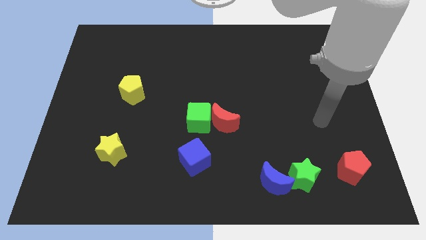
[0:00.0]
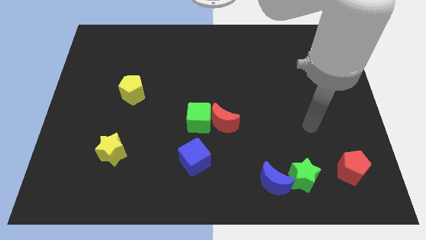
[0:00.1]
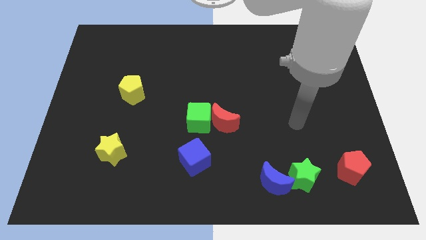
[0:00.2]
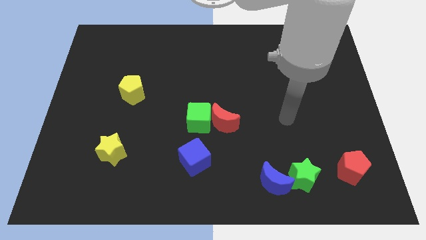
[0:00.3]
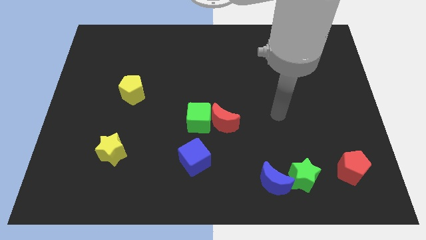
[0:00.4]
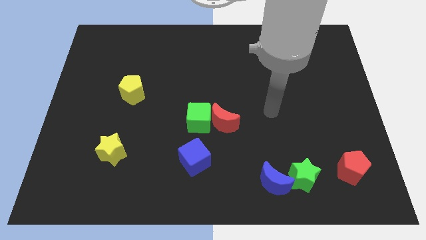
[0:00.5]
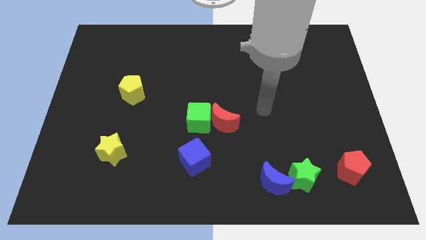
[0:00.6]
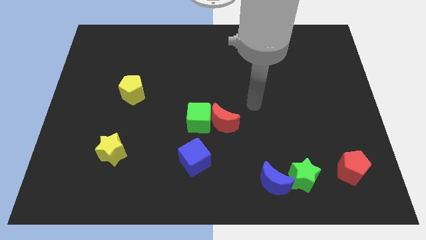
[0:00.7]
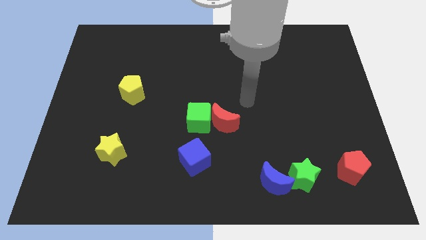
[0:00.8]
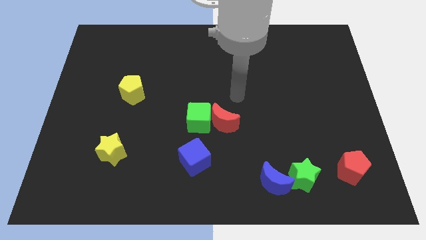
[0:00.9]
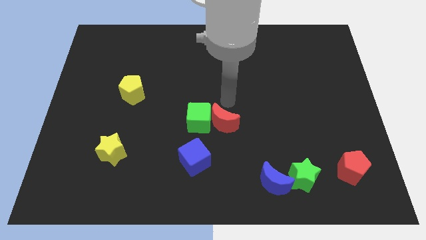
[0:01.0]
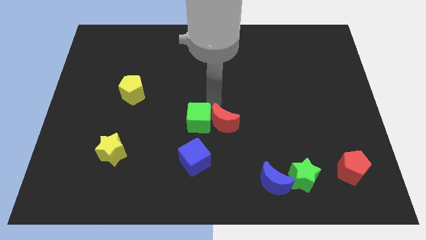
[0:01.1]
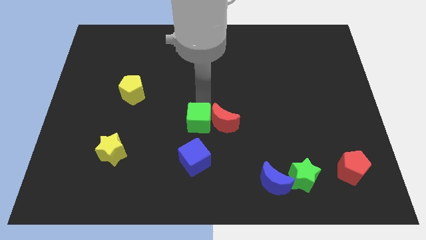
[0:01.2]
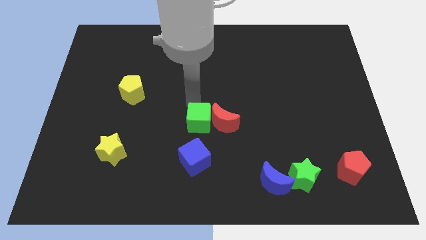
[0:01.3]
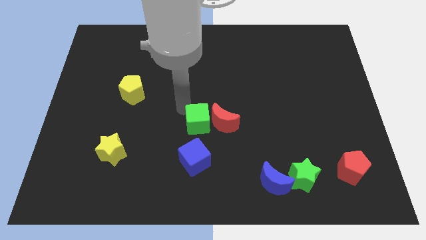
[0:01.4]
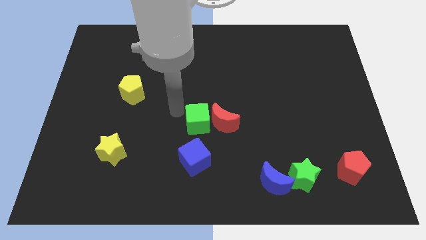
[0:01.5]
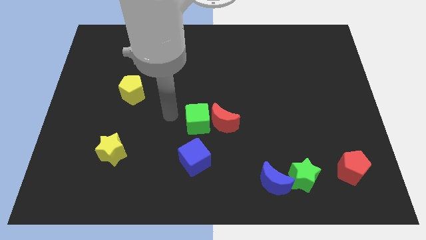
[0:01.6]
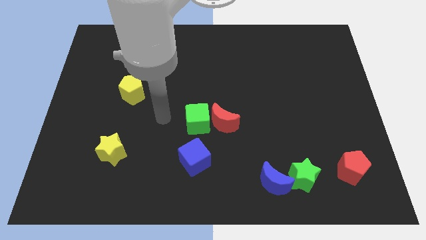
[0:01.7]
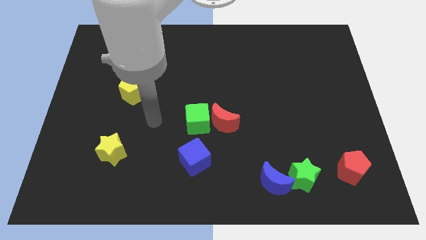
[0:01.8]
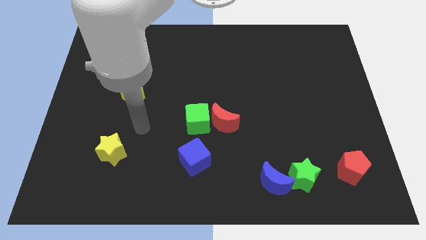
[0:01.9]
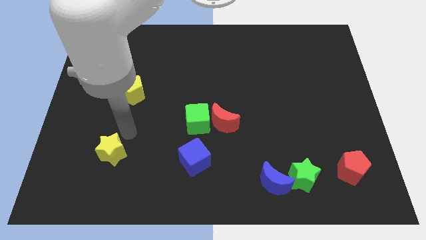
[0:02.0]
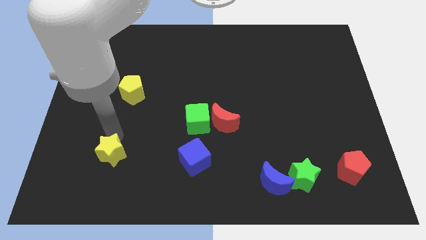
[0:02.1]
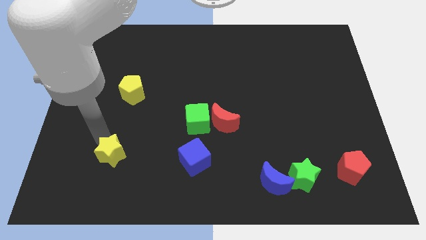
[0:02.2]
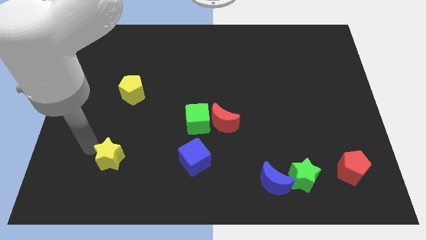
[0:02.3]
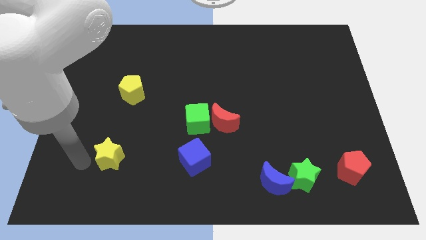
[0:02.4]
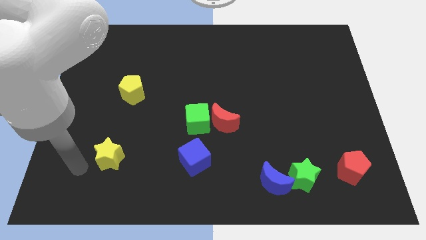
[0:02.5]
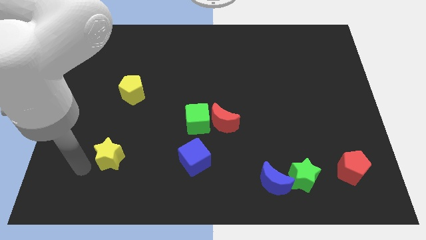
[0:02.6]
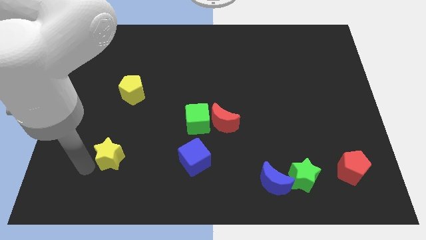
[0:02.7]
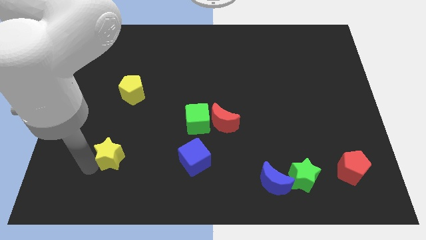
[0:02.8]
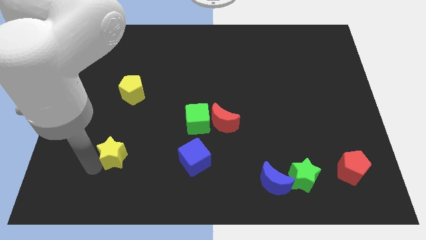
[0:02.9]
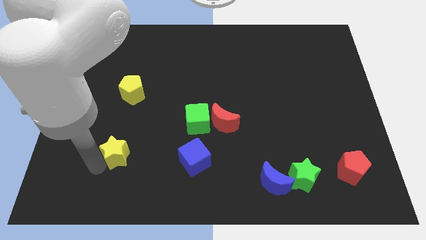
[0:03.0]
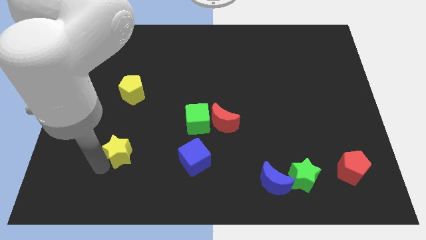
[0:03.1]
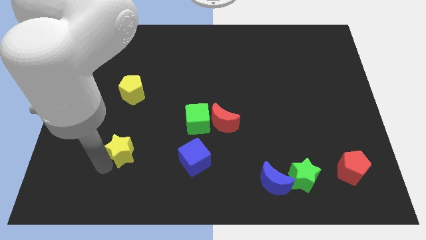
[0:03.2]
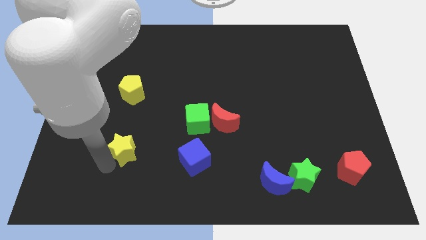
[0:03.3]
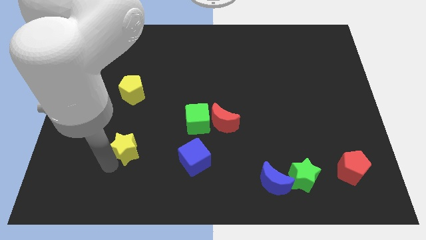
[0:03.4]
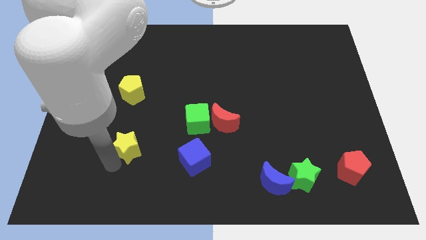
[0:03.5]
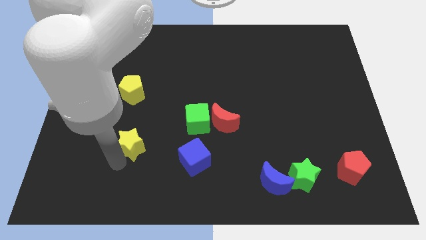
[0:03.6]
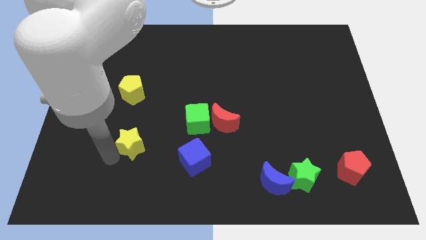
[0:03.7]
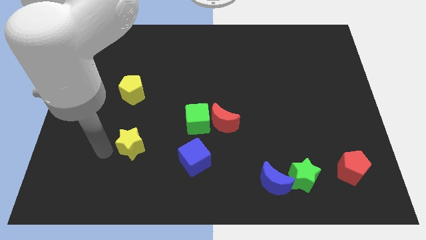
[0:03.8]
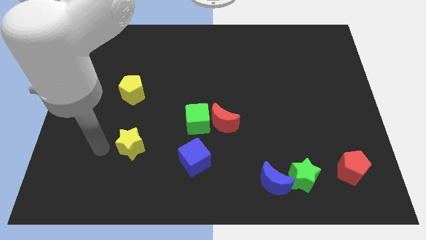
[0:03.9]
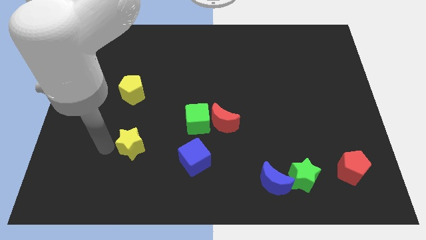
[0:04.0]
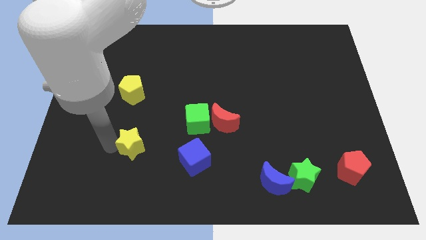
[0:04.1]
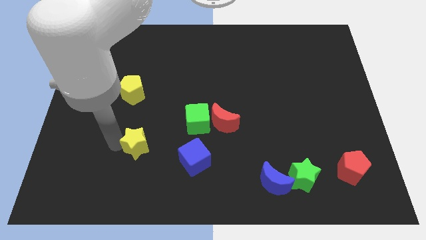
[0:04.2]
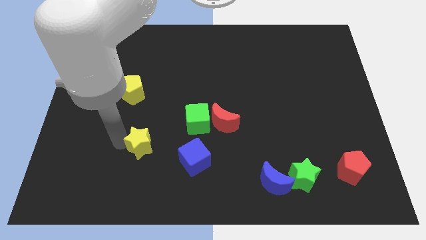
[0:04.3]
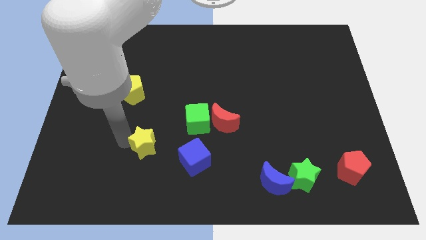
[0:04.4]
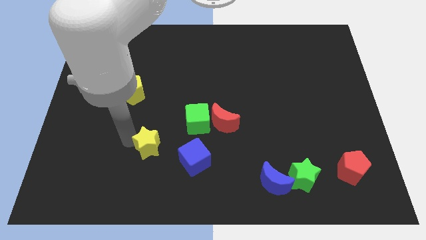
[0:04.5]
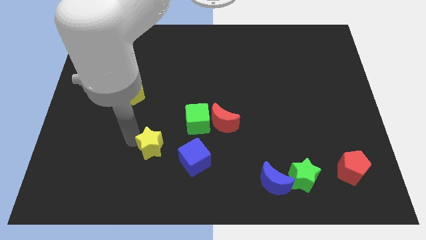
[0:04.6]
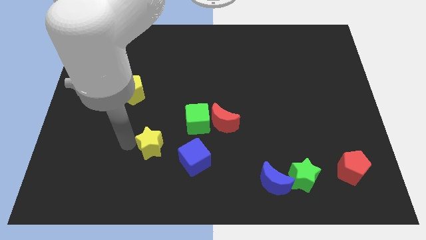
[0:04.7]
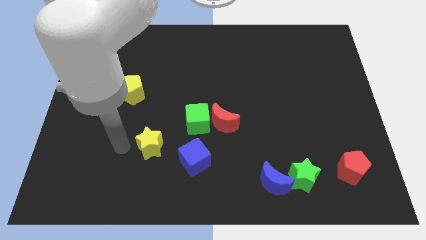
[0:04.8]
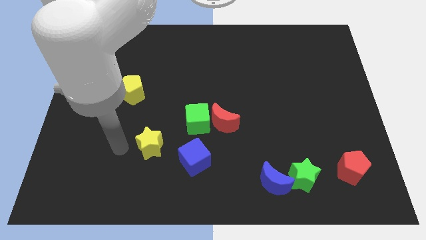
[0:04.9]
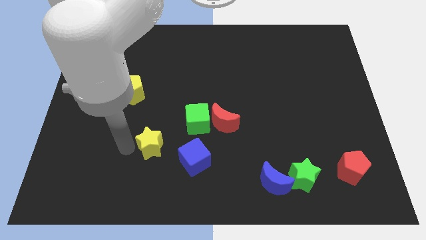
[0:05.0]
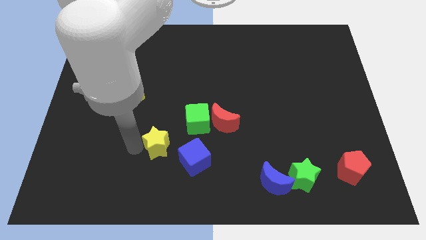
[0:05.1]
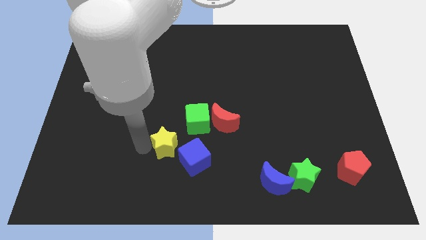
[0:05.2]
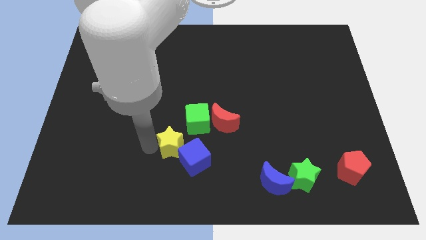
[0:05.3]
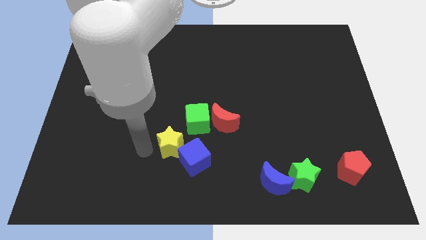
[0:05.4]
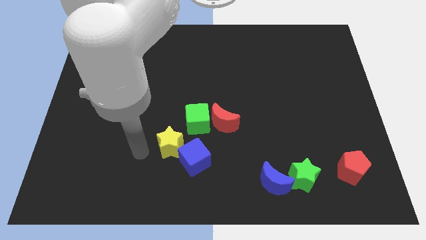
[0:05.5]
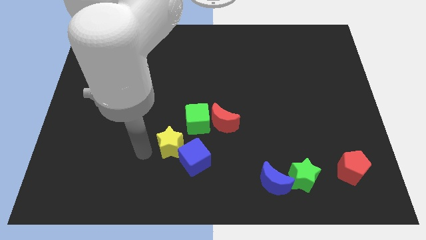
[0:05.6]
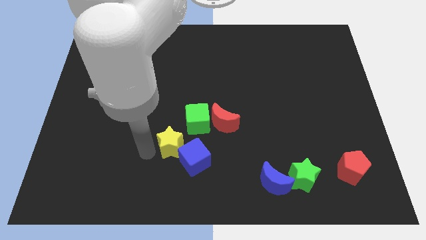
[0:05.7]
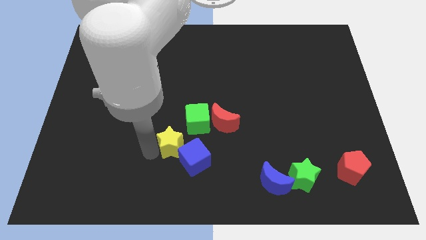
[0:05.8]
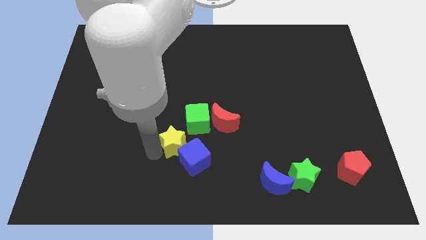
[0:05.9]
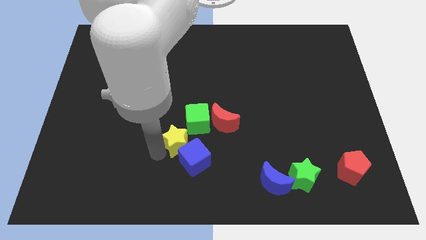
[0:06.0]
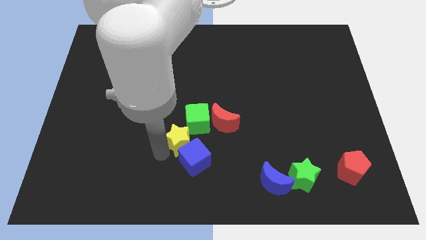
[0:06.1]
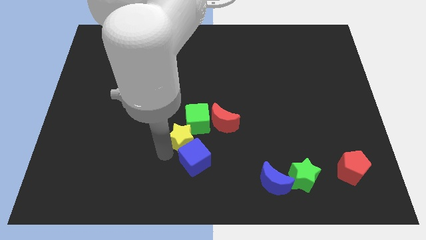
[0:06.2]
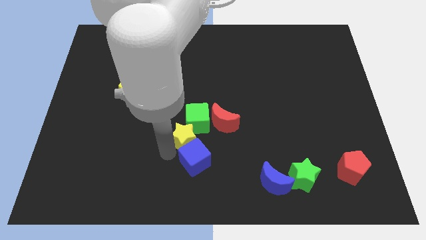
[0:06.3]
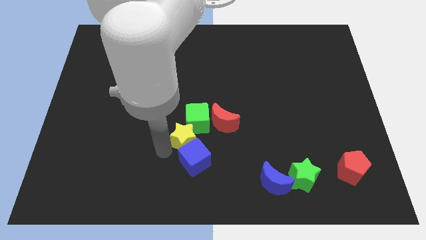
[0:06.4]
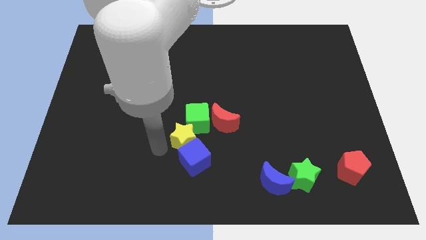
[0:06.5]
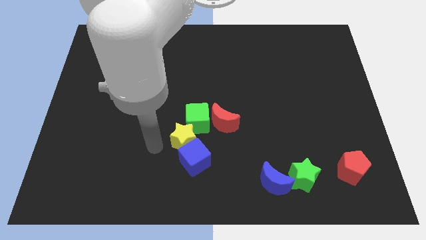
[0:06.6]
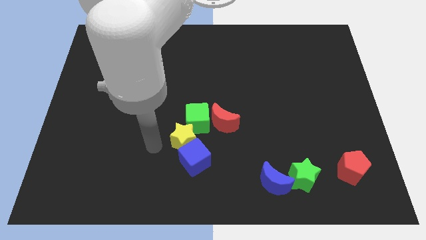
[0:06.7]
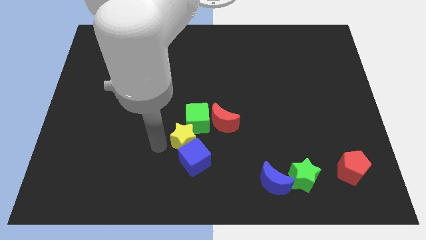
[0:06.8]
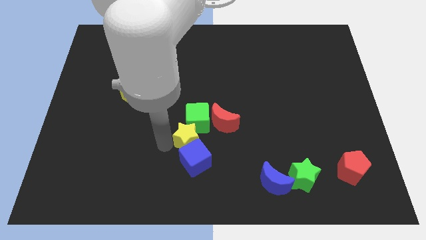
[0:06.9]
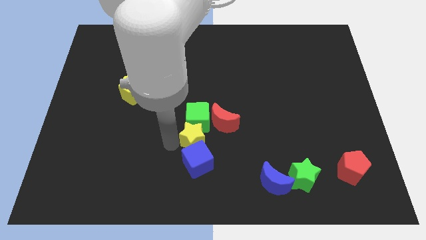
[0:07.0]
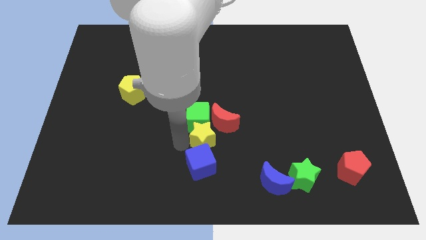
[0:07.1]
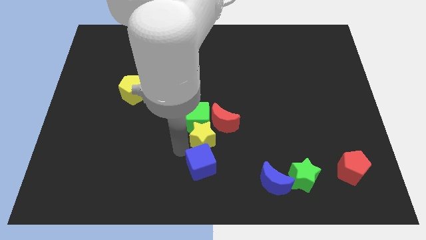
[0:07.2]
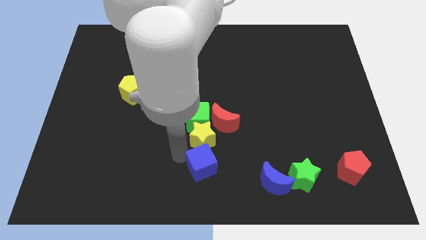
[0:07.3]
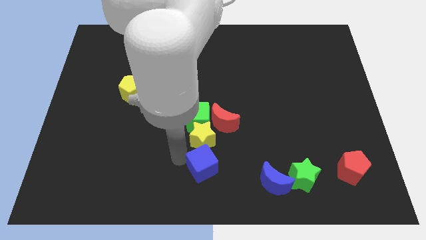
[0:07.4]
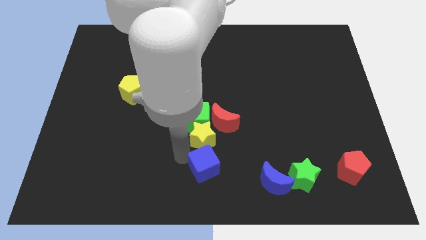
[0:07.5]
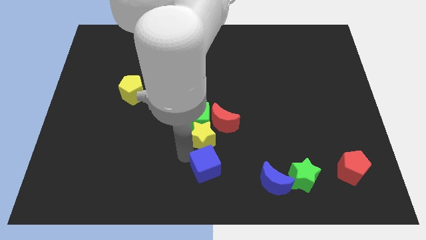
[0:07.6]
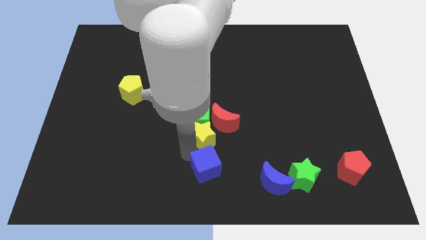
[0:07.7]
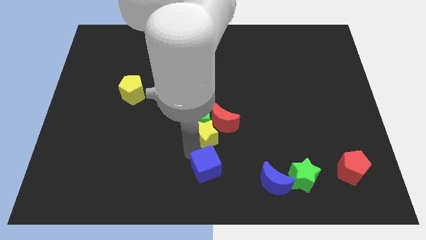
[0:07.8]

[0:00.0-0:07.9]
slide the yellow star close to the red moon
